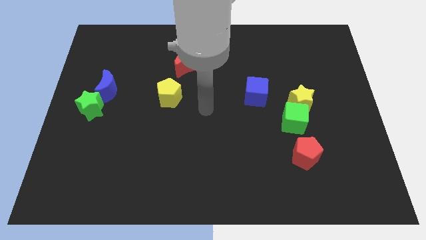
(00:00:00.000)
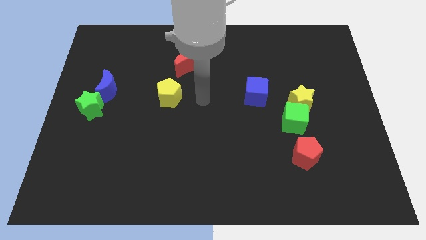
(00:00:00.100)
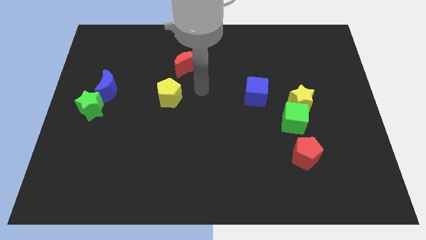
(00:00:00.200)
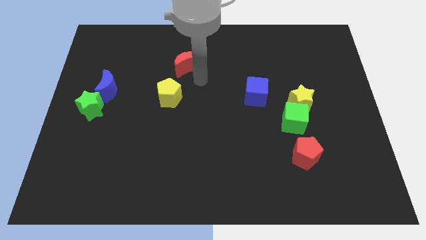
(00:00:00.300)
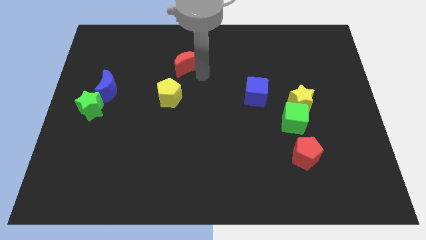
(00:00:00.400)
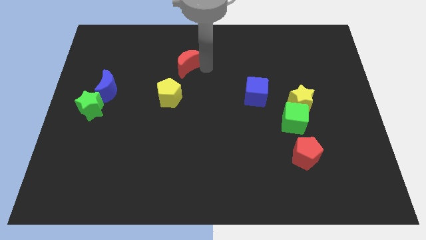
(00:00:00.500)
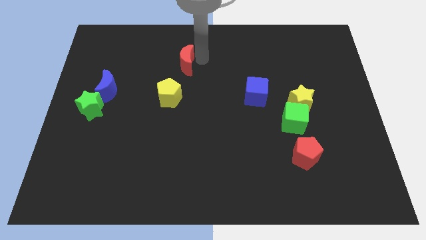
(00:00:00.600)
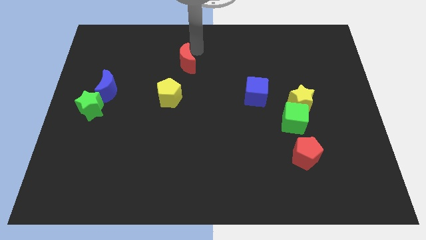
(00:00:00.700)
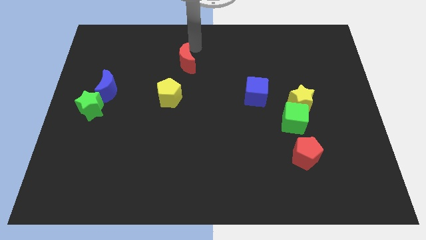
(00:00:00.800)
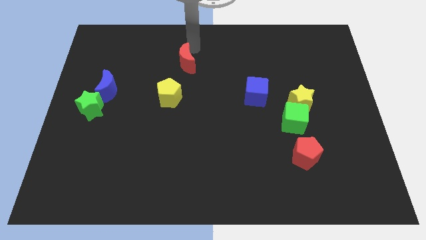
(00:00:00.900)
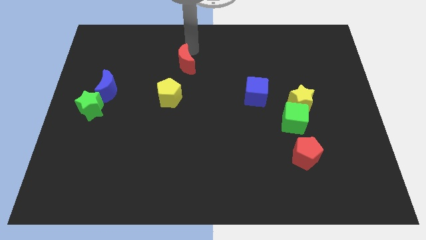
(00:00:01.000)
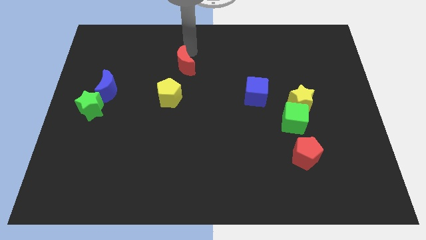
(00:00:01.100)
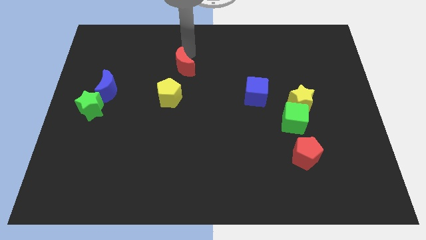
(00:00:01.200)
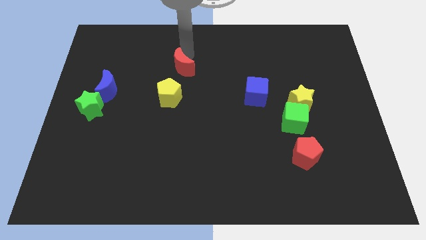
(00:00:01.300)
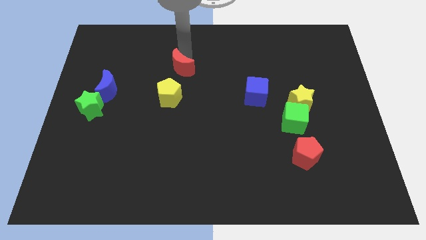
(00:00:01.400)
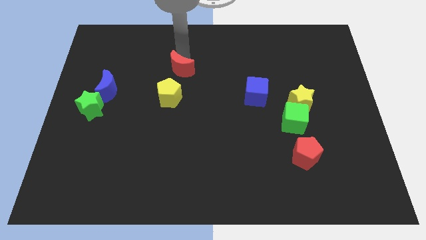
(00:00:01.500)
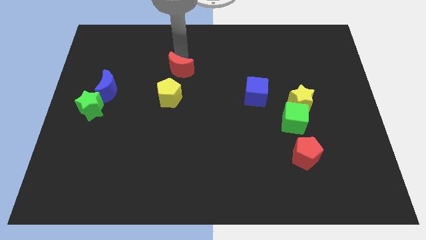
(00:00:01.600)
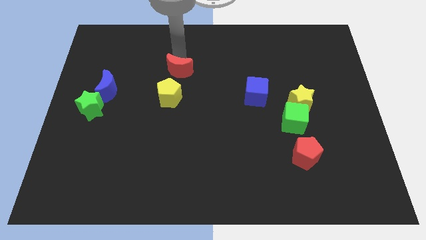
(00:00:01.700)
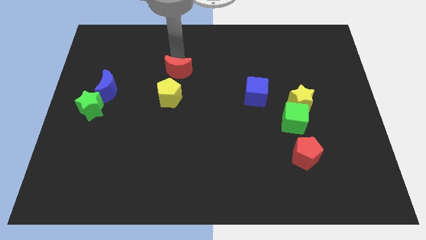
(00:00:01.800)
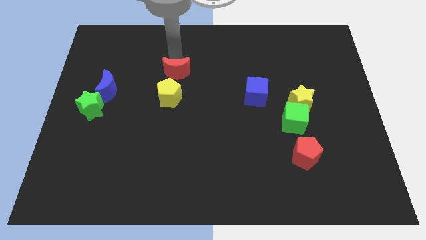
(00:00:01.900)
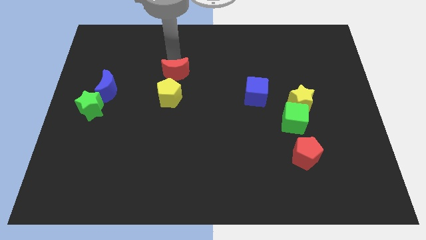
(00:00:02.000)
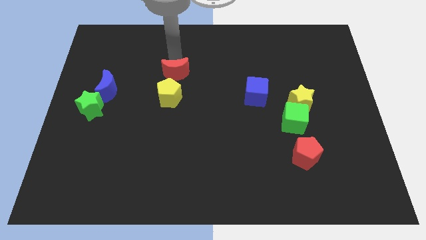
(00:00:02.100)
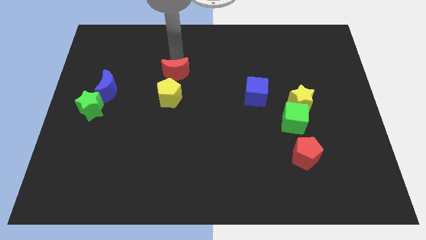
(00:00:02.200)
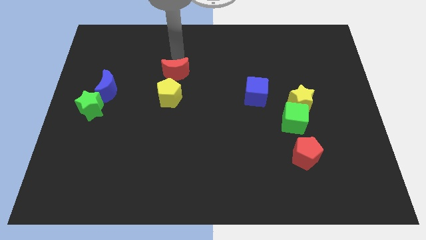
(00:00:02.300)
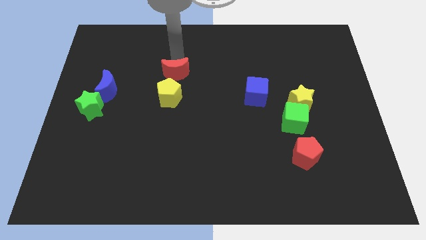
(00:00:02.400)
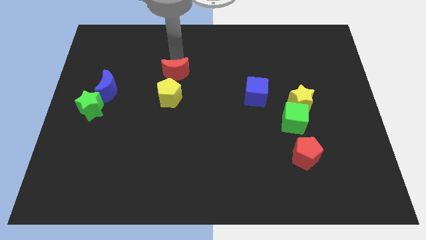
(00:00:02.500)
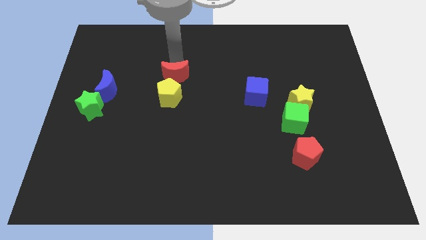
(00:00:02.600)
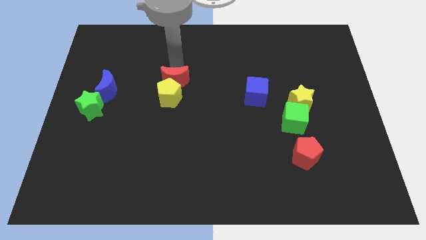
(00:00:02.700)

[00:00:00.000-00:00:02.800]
slide the red moon close to the yellow pentagon

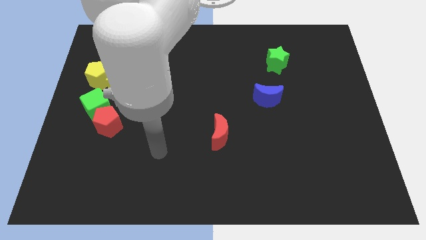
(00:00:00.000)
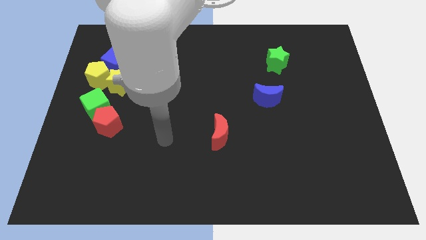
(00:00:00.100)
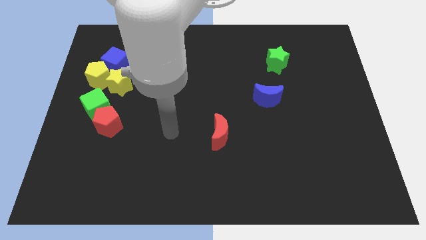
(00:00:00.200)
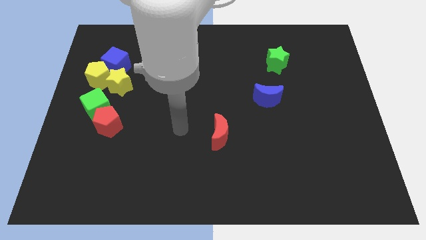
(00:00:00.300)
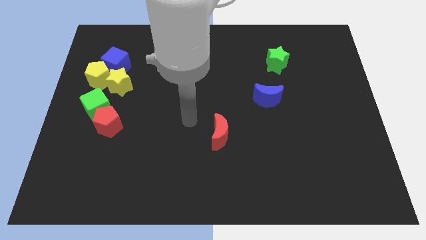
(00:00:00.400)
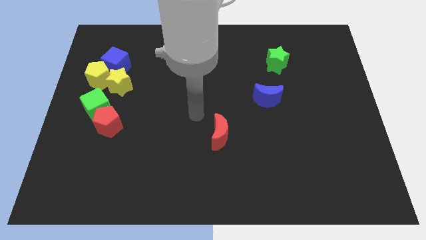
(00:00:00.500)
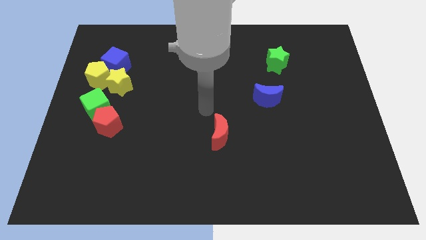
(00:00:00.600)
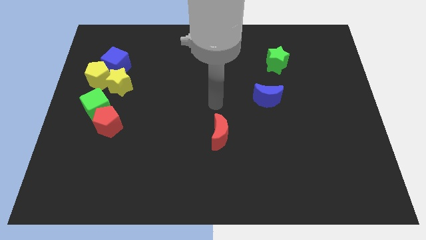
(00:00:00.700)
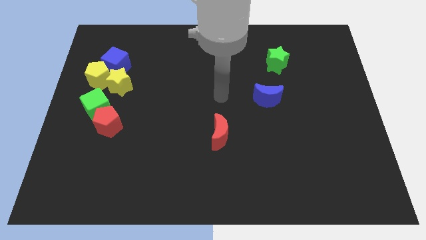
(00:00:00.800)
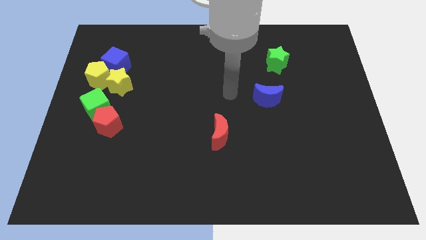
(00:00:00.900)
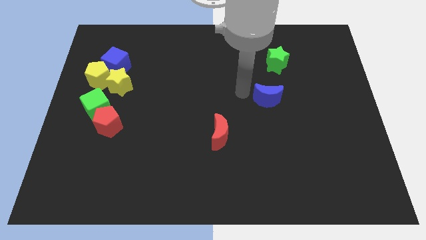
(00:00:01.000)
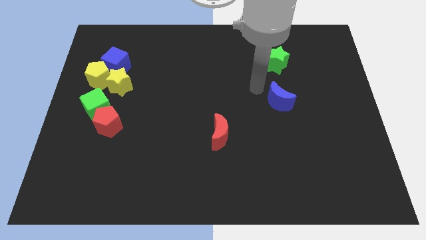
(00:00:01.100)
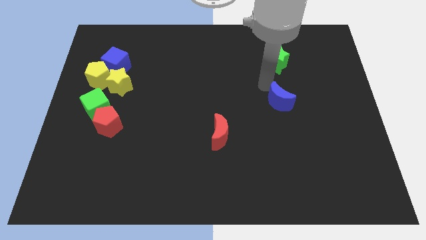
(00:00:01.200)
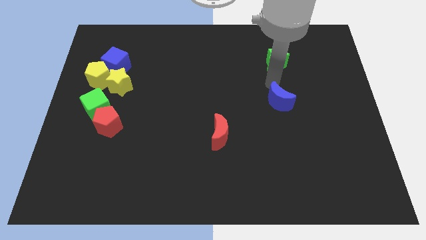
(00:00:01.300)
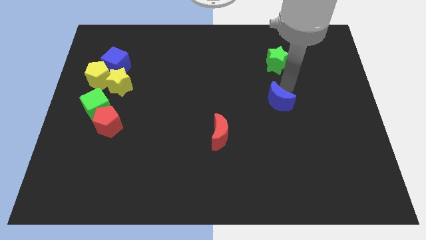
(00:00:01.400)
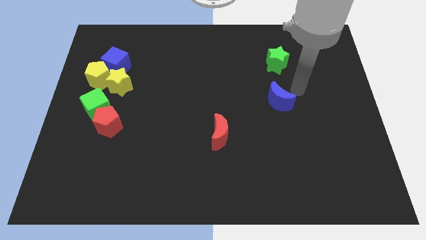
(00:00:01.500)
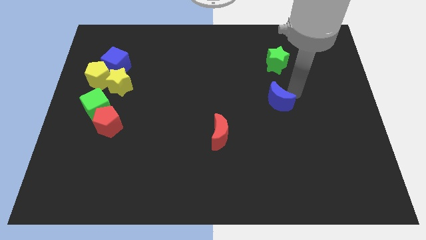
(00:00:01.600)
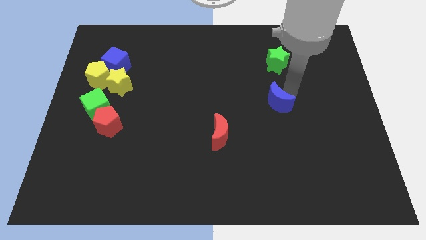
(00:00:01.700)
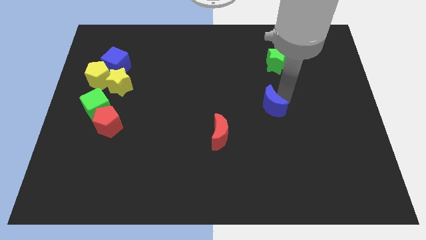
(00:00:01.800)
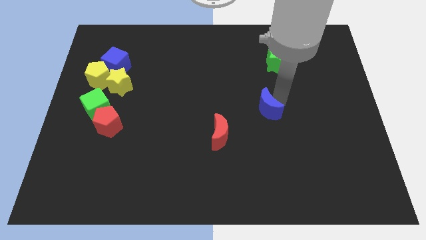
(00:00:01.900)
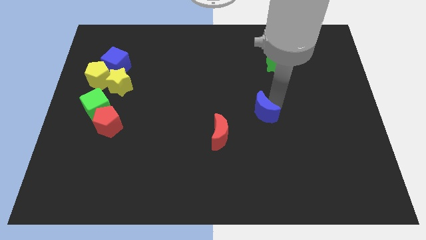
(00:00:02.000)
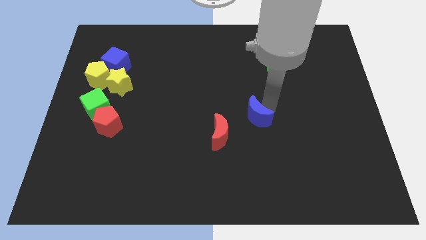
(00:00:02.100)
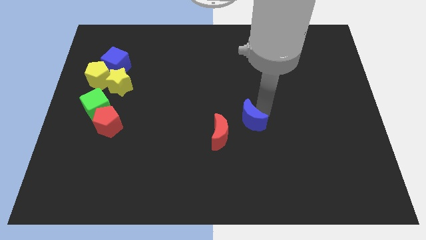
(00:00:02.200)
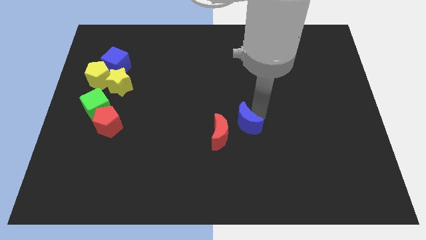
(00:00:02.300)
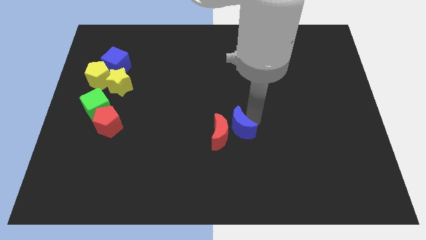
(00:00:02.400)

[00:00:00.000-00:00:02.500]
push the blue moon next to the red moon

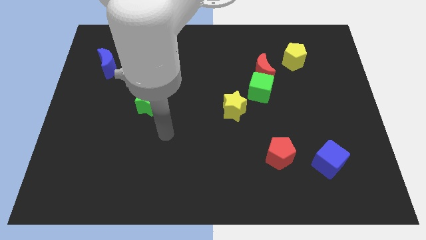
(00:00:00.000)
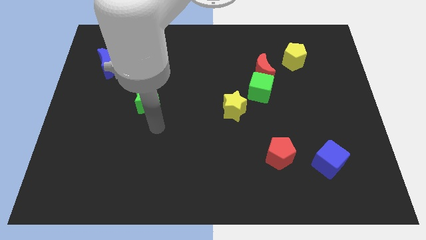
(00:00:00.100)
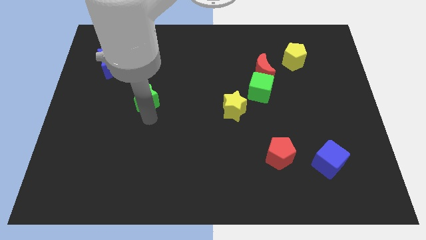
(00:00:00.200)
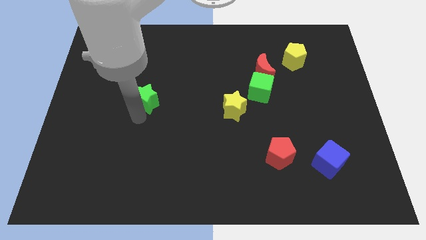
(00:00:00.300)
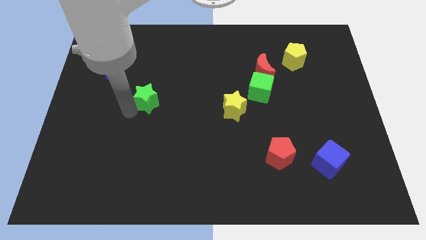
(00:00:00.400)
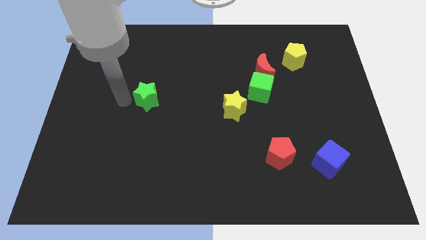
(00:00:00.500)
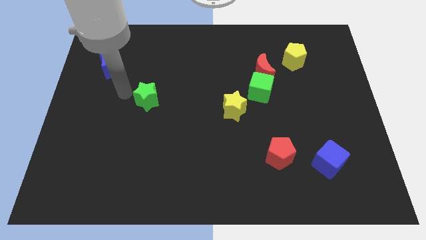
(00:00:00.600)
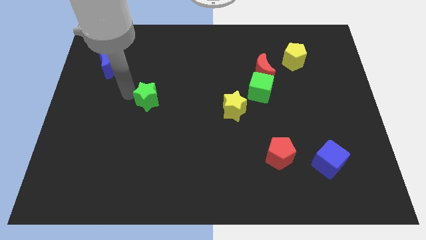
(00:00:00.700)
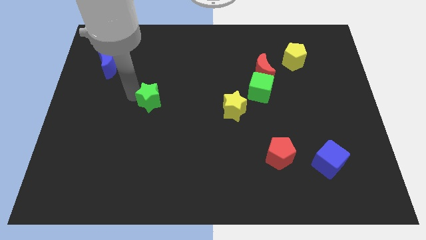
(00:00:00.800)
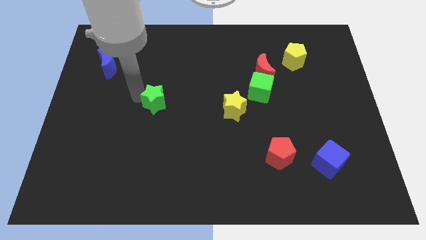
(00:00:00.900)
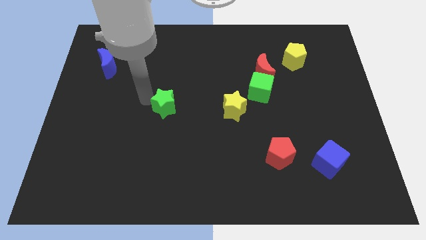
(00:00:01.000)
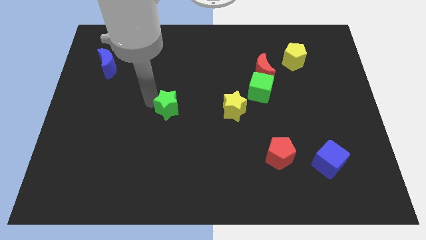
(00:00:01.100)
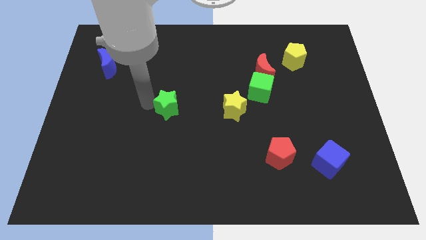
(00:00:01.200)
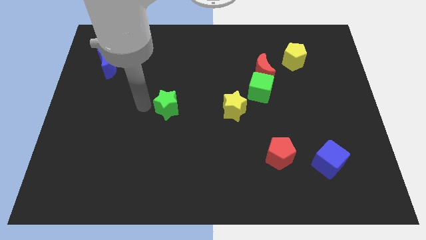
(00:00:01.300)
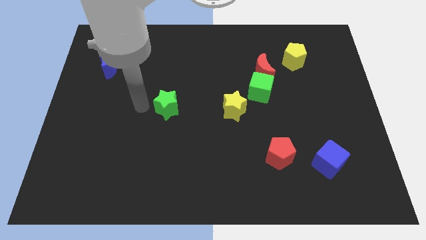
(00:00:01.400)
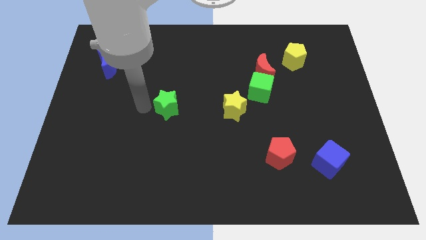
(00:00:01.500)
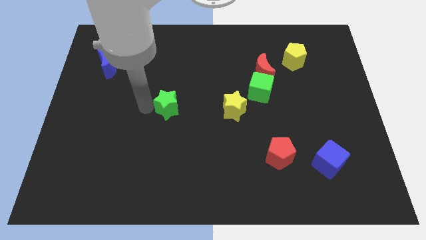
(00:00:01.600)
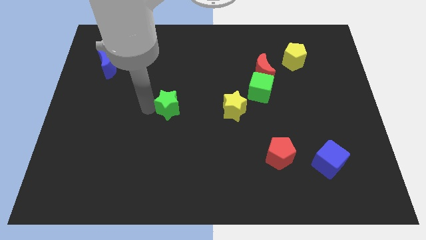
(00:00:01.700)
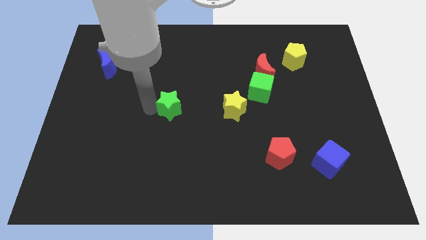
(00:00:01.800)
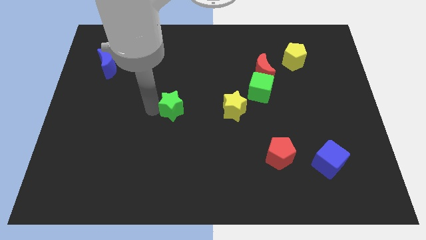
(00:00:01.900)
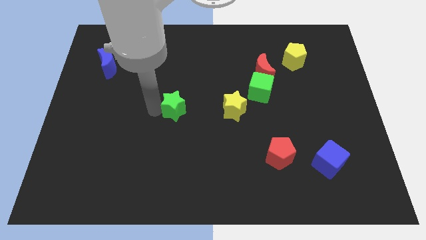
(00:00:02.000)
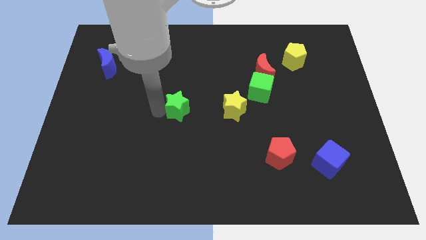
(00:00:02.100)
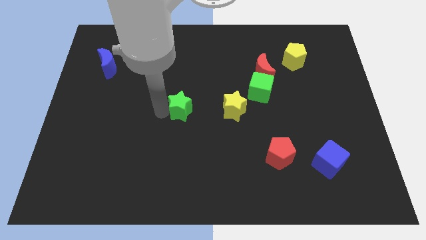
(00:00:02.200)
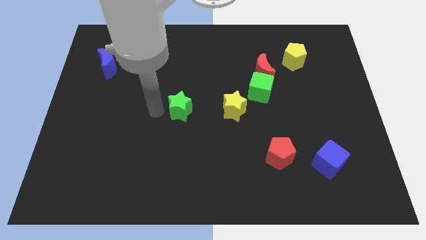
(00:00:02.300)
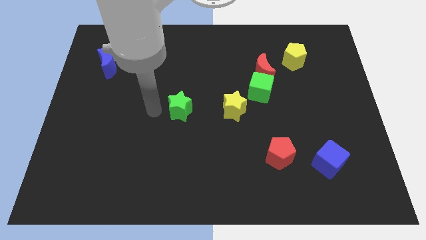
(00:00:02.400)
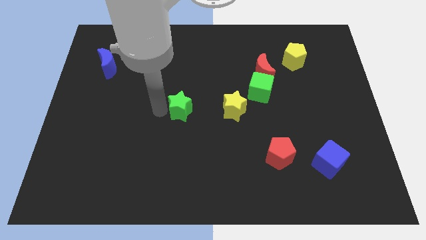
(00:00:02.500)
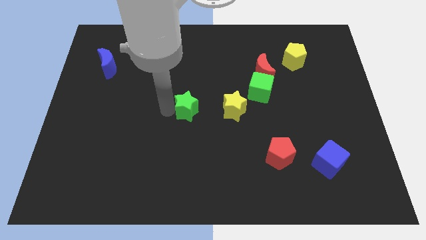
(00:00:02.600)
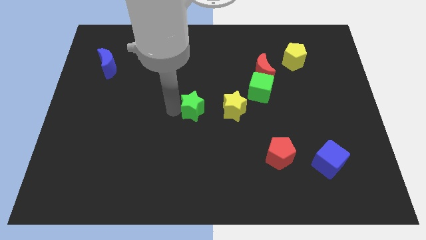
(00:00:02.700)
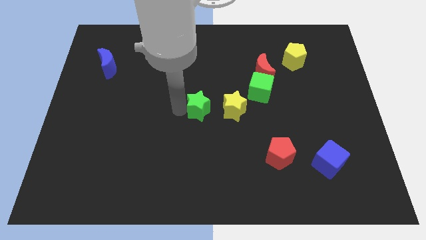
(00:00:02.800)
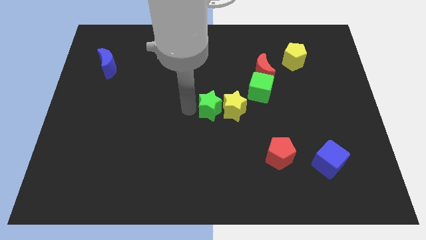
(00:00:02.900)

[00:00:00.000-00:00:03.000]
put the green star to the yellow star
